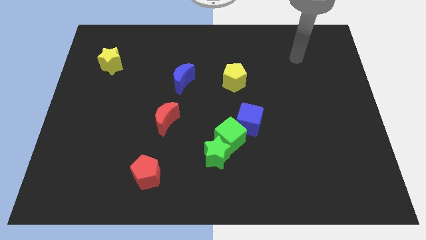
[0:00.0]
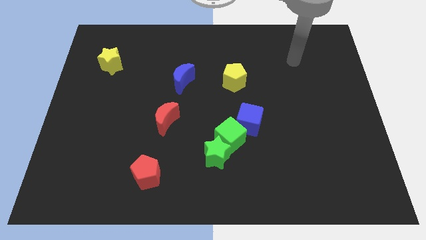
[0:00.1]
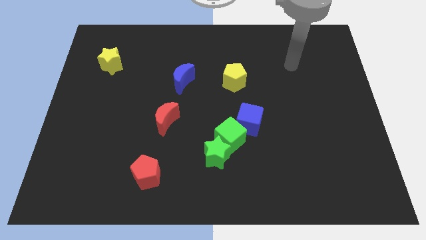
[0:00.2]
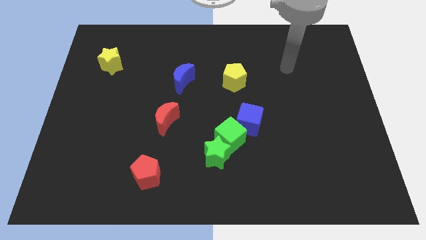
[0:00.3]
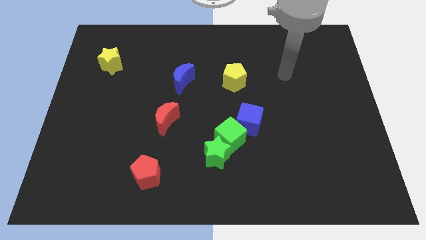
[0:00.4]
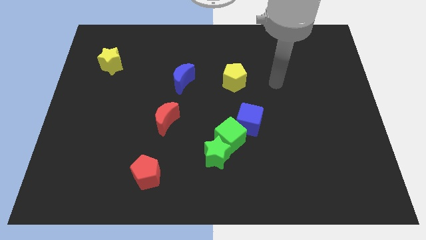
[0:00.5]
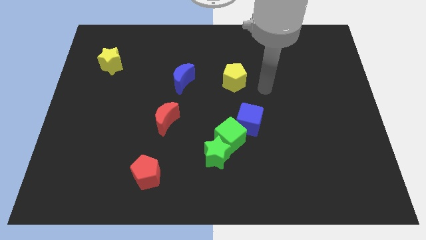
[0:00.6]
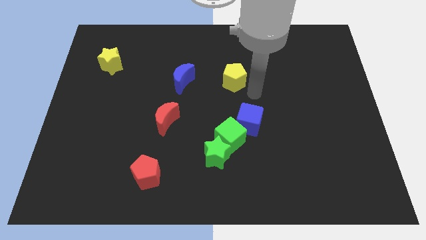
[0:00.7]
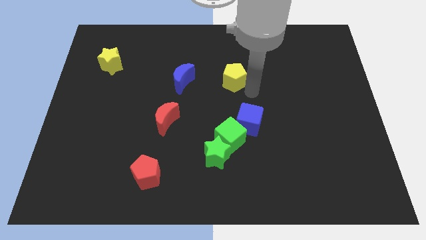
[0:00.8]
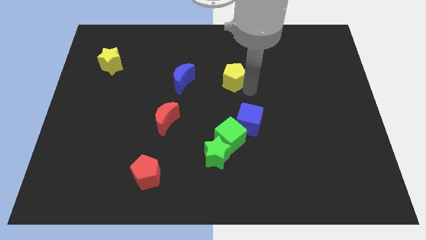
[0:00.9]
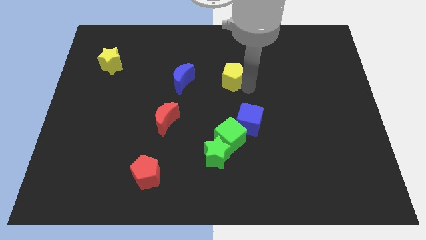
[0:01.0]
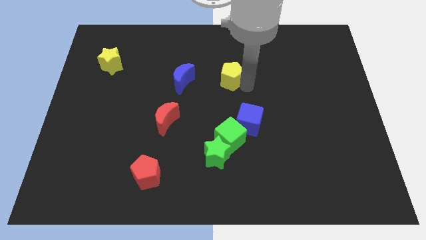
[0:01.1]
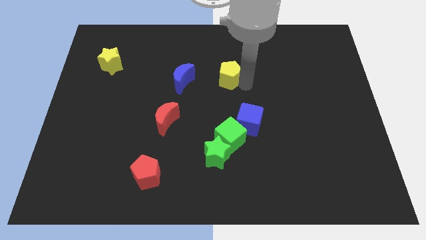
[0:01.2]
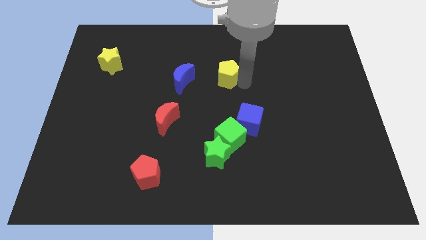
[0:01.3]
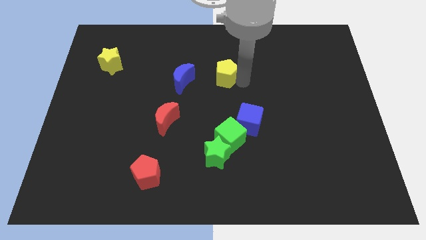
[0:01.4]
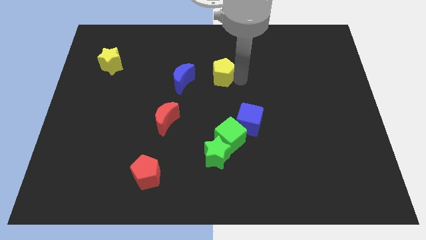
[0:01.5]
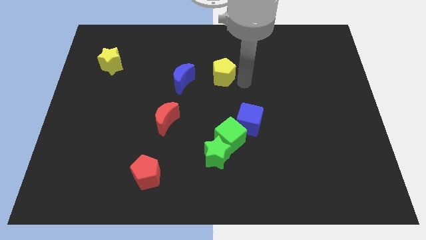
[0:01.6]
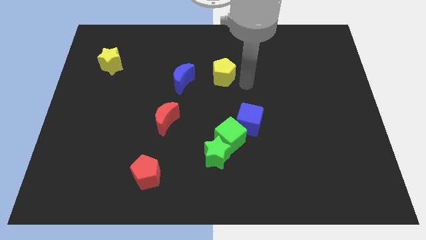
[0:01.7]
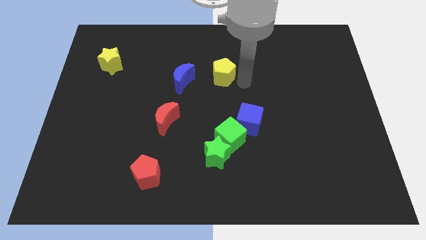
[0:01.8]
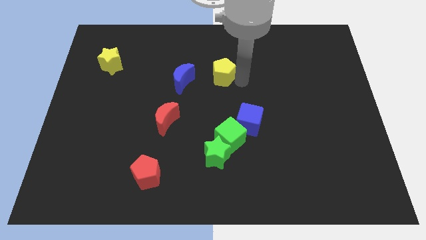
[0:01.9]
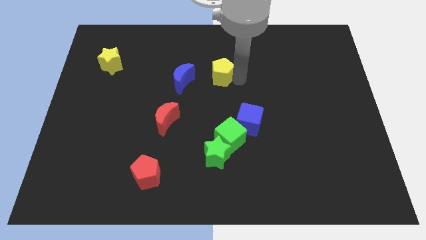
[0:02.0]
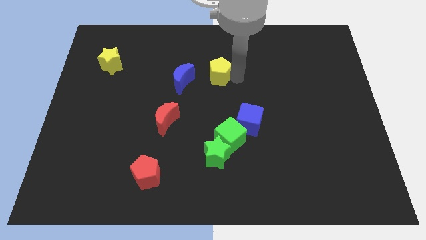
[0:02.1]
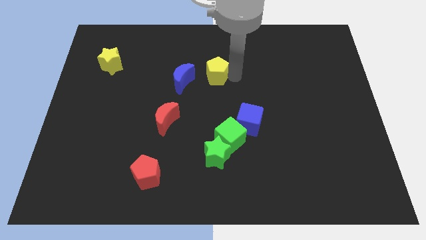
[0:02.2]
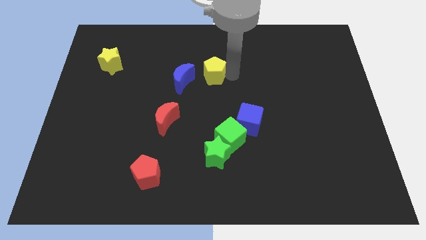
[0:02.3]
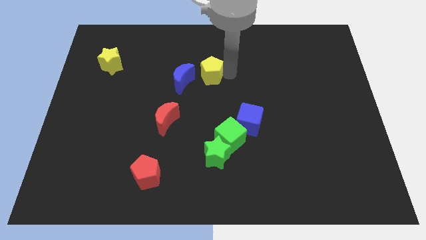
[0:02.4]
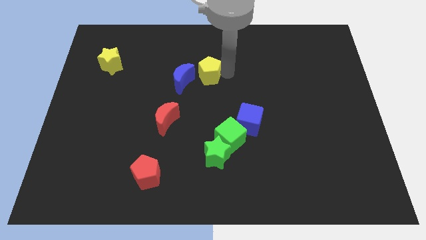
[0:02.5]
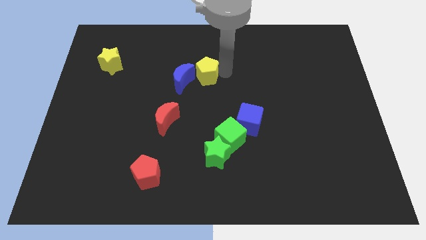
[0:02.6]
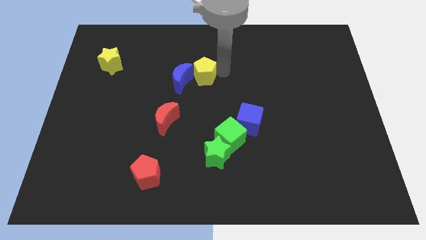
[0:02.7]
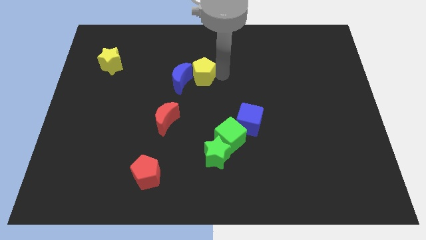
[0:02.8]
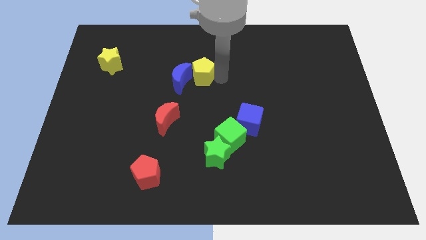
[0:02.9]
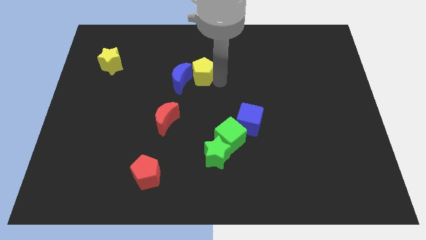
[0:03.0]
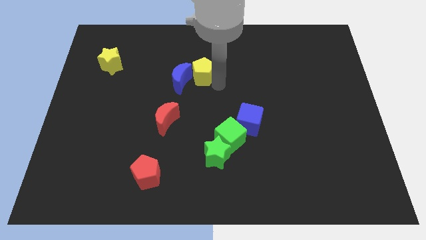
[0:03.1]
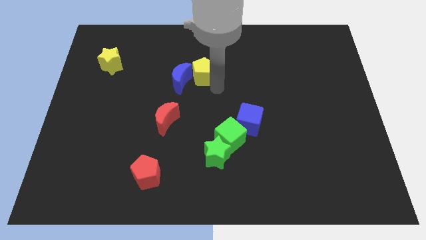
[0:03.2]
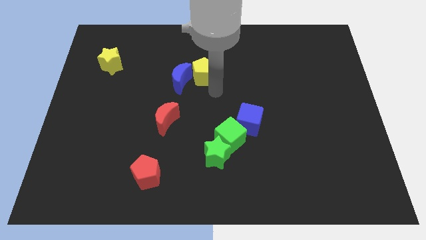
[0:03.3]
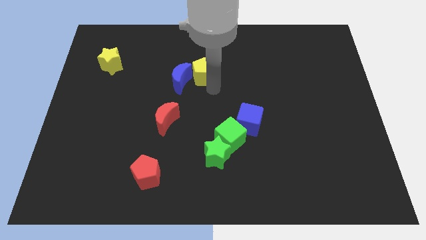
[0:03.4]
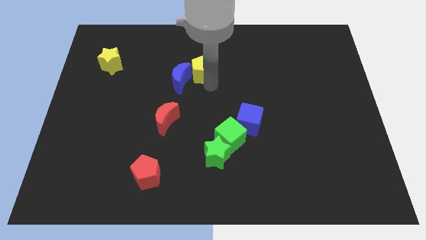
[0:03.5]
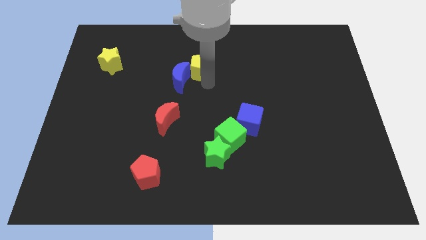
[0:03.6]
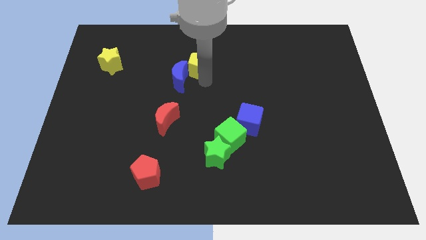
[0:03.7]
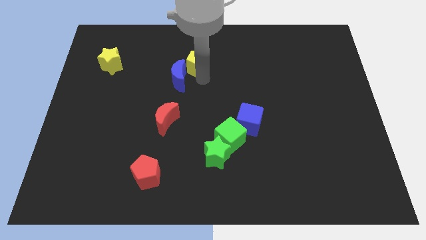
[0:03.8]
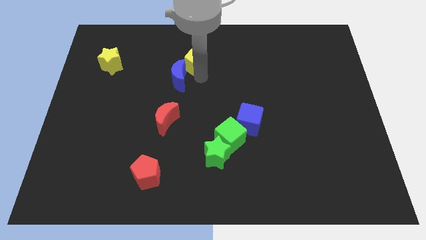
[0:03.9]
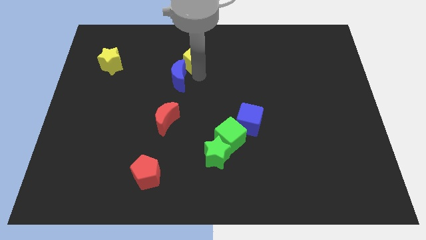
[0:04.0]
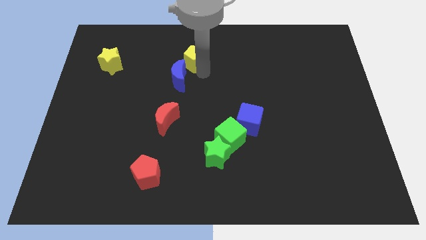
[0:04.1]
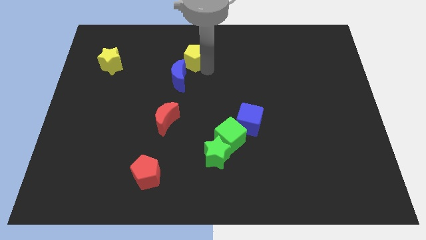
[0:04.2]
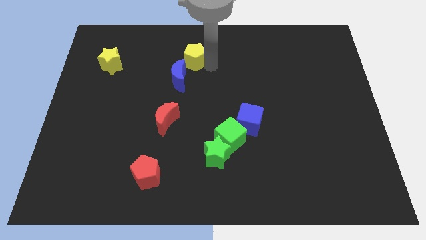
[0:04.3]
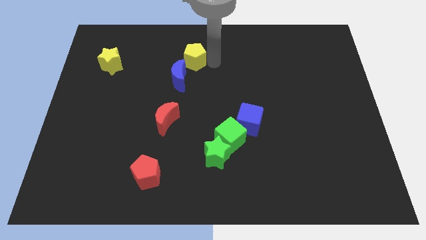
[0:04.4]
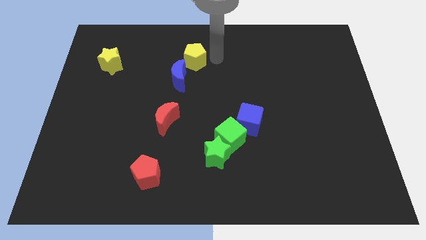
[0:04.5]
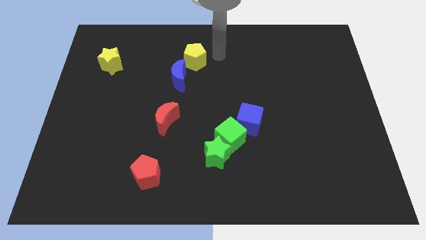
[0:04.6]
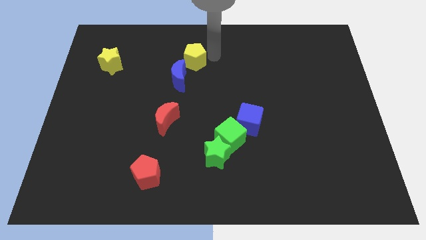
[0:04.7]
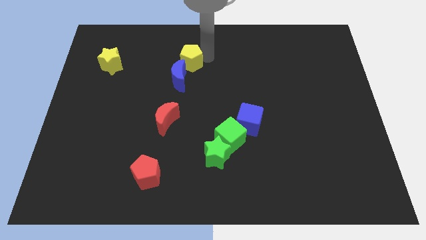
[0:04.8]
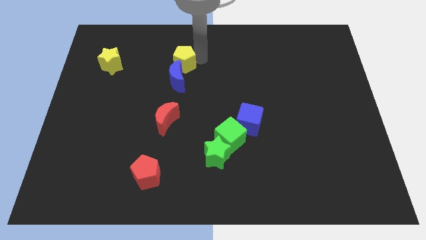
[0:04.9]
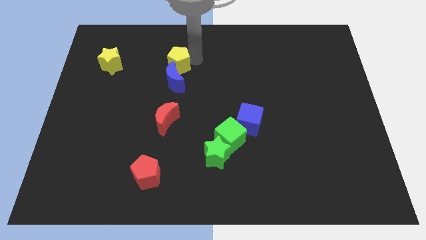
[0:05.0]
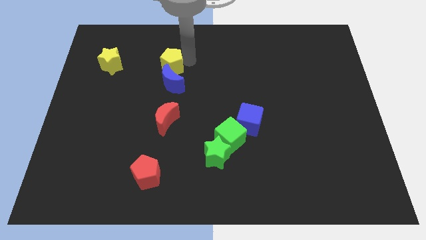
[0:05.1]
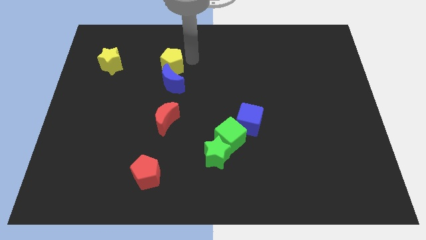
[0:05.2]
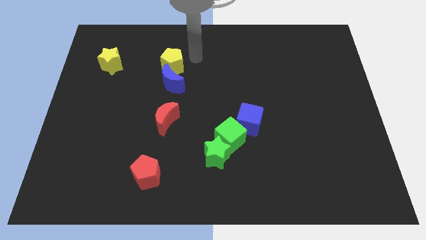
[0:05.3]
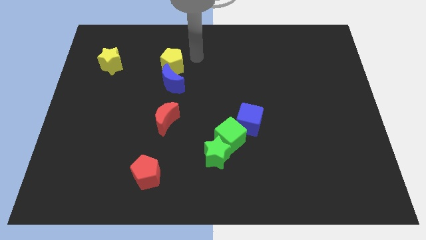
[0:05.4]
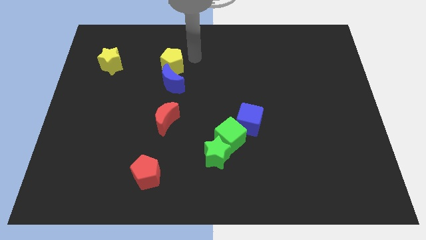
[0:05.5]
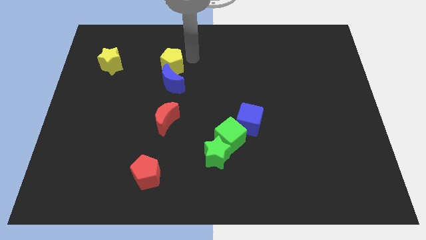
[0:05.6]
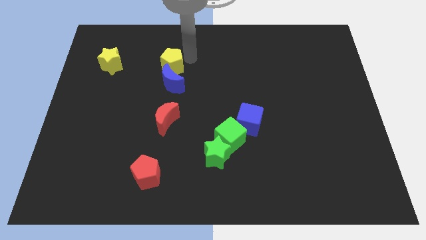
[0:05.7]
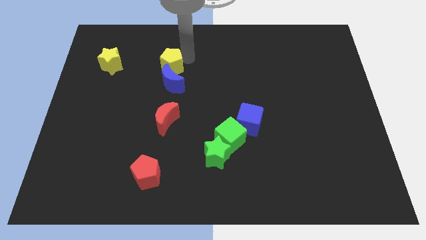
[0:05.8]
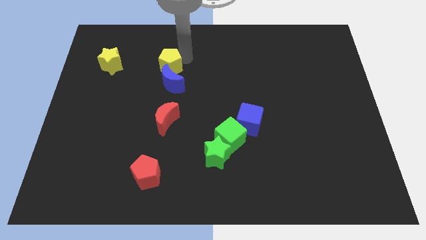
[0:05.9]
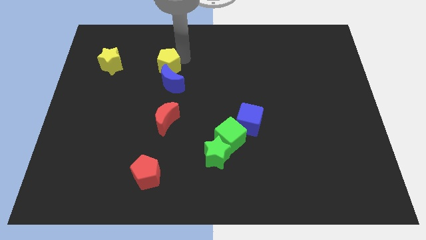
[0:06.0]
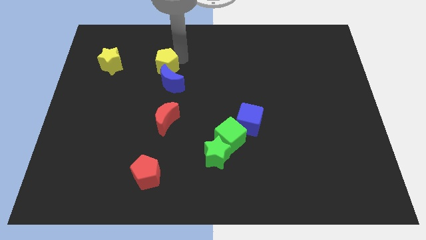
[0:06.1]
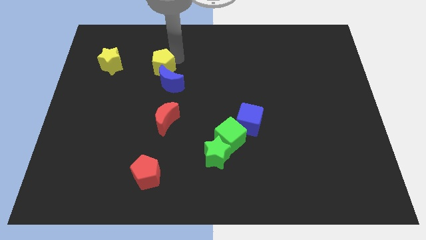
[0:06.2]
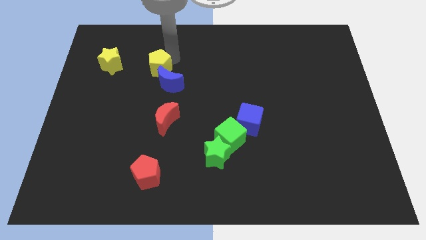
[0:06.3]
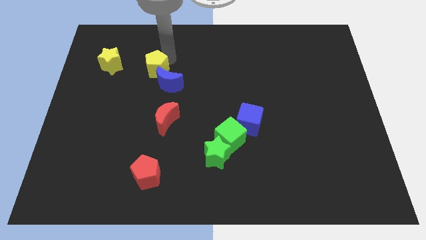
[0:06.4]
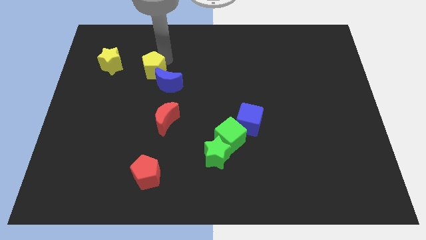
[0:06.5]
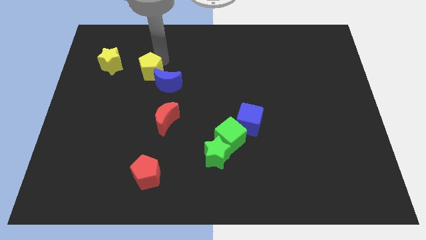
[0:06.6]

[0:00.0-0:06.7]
slide the yellow pentagon to the left of the blue moon

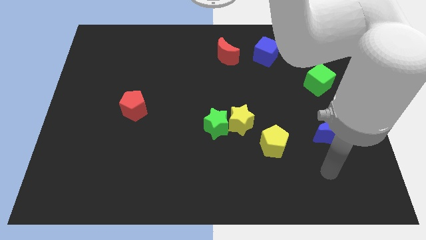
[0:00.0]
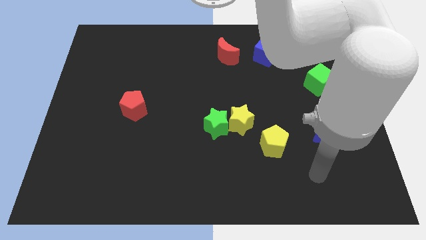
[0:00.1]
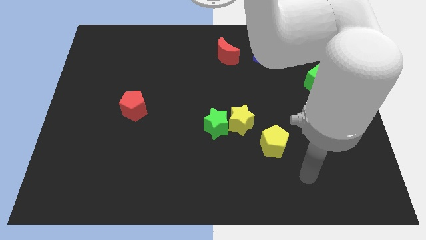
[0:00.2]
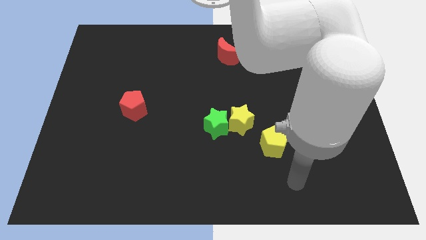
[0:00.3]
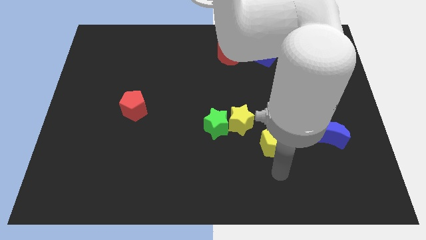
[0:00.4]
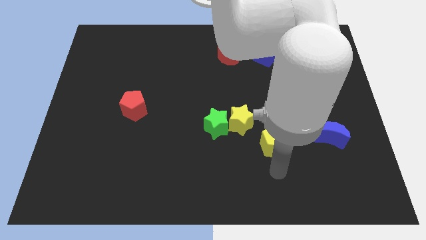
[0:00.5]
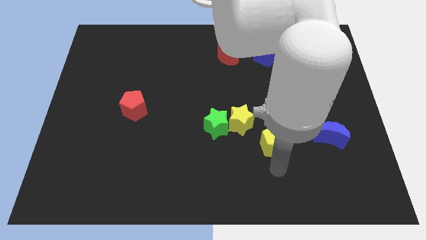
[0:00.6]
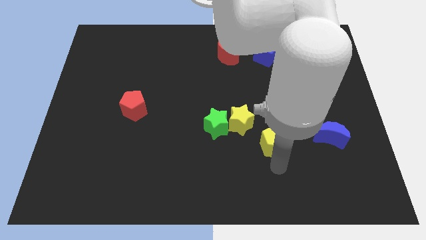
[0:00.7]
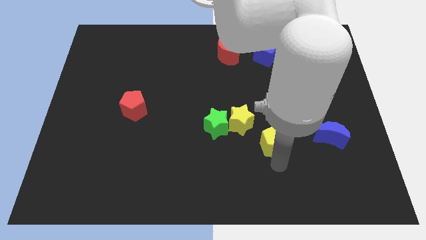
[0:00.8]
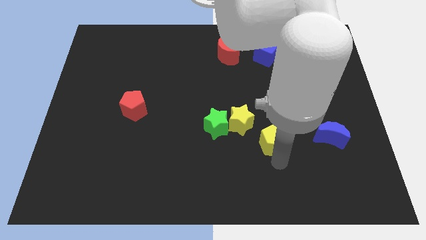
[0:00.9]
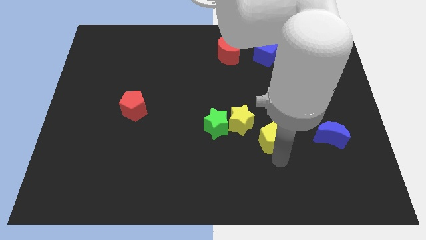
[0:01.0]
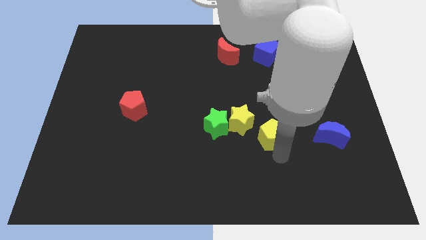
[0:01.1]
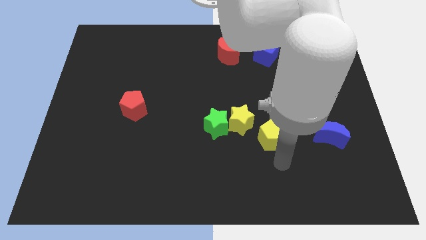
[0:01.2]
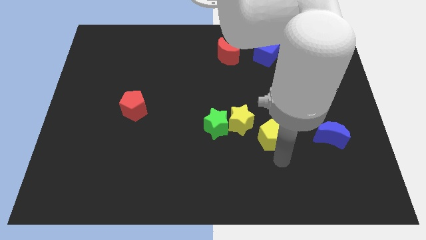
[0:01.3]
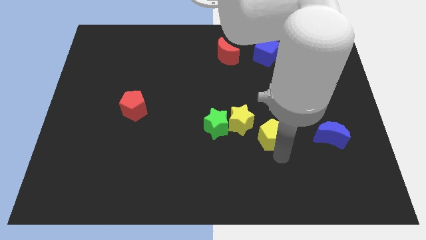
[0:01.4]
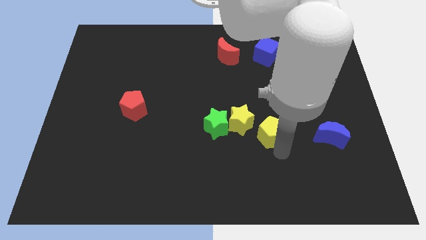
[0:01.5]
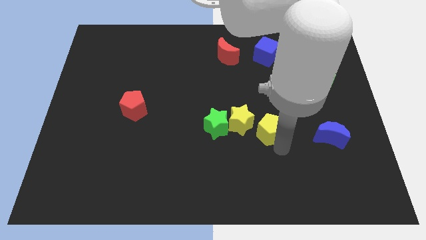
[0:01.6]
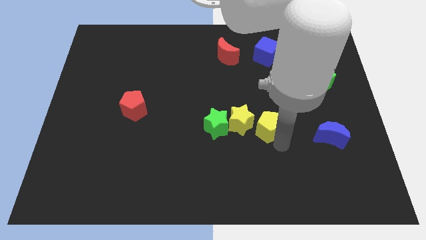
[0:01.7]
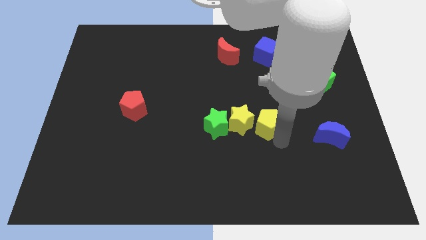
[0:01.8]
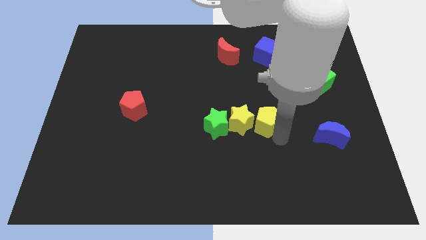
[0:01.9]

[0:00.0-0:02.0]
move the yellow pentagon to the top right side of the yellow star

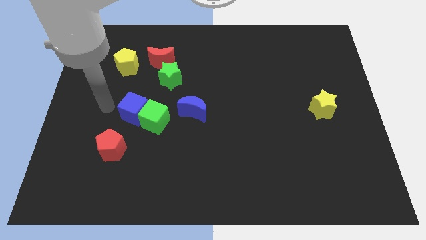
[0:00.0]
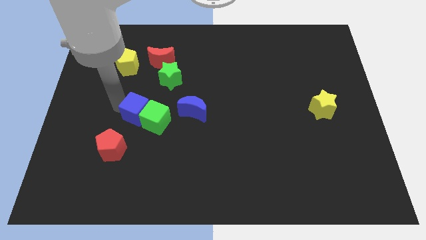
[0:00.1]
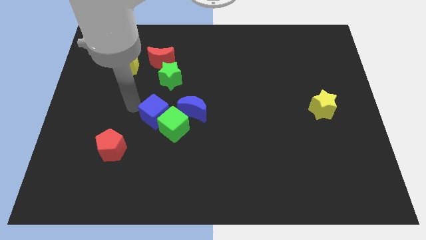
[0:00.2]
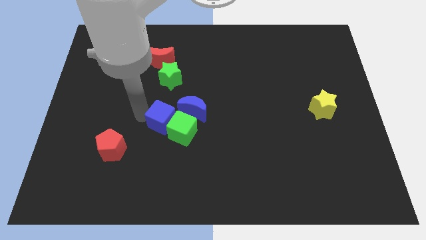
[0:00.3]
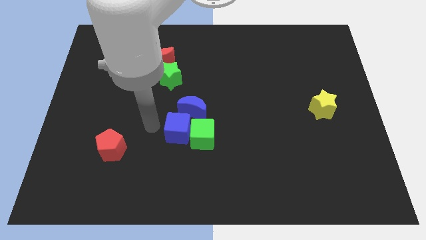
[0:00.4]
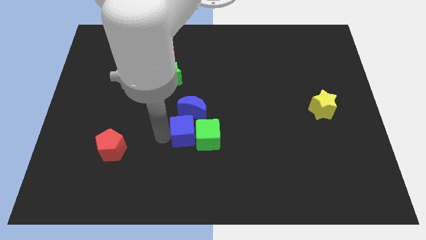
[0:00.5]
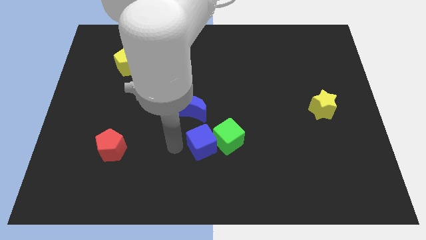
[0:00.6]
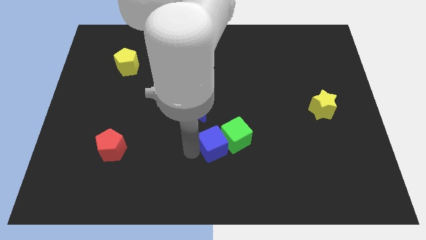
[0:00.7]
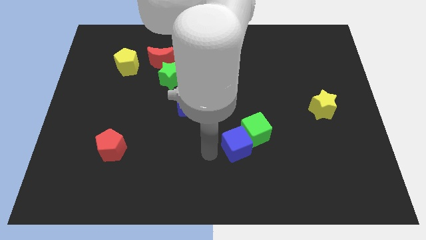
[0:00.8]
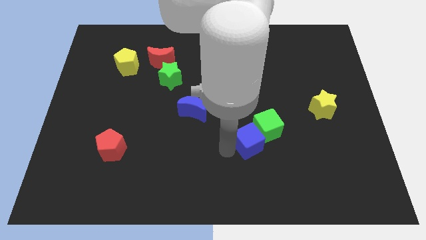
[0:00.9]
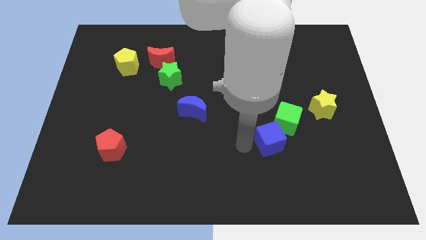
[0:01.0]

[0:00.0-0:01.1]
slide the green cube just left of the yellow star
